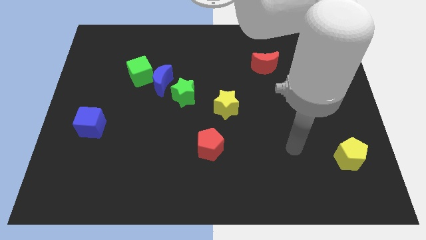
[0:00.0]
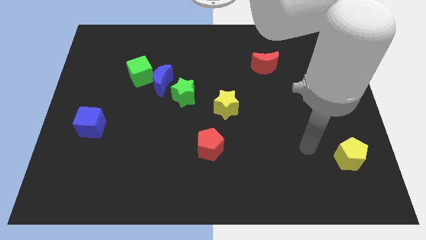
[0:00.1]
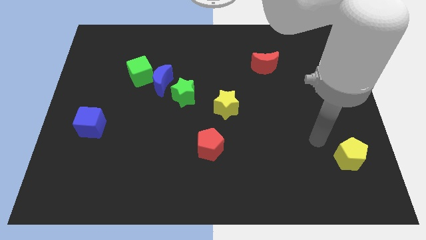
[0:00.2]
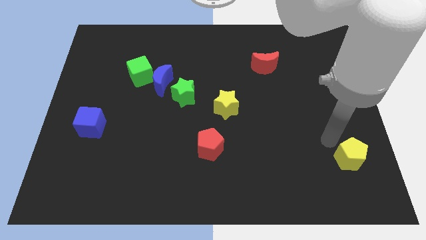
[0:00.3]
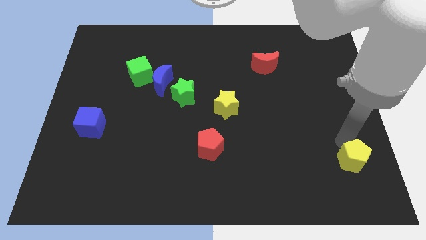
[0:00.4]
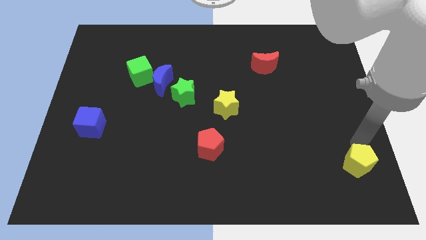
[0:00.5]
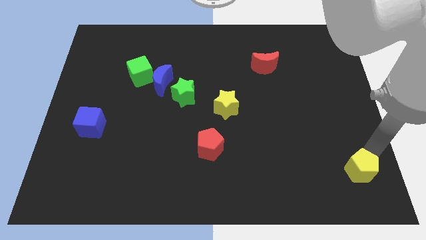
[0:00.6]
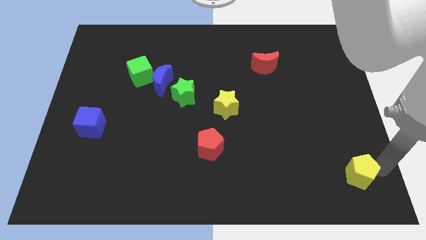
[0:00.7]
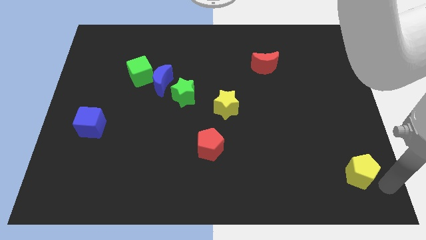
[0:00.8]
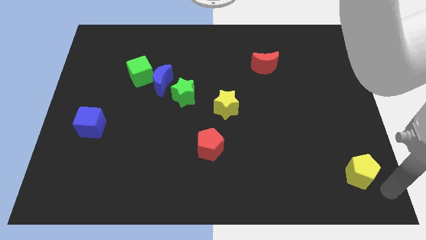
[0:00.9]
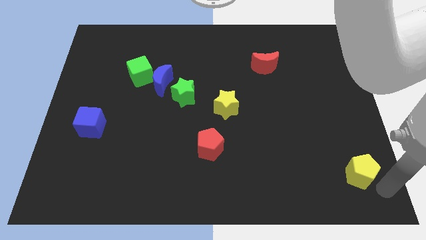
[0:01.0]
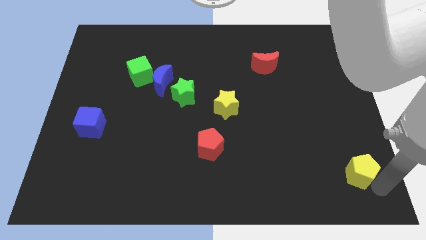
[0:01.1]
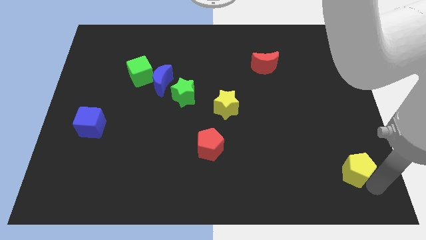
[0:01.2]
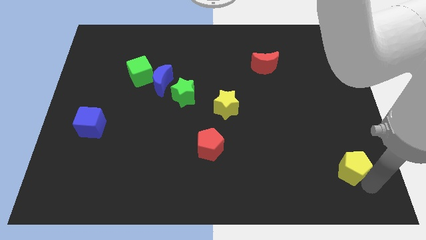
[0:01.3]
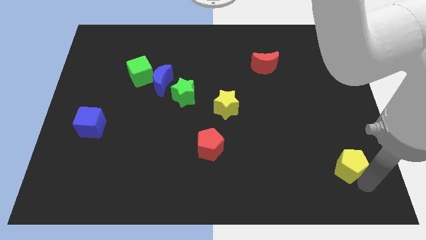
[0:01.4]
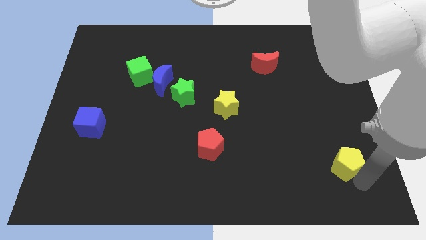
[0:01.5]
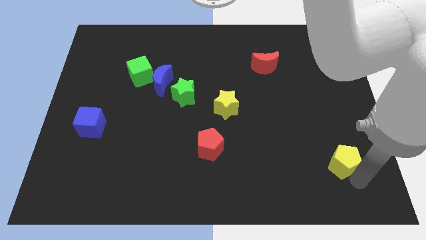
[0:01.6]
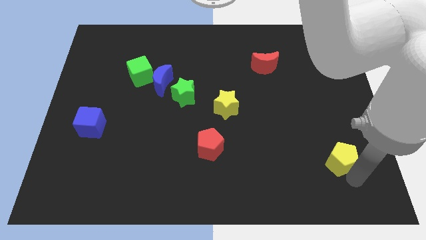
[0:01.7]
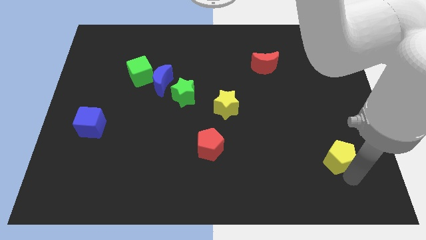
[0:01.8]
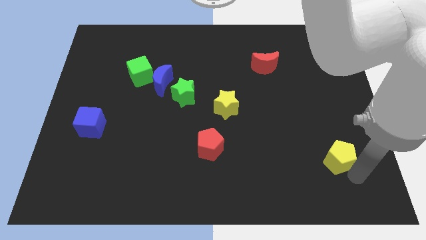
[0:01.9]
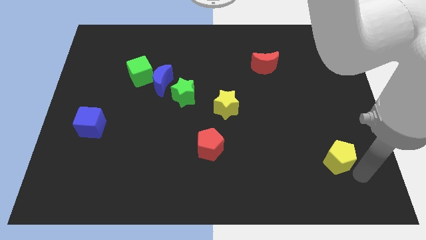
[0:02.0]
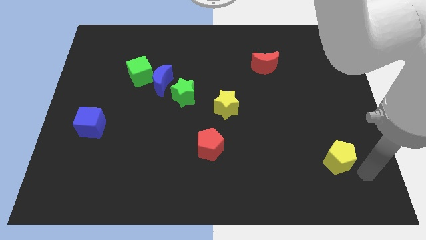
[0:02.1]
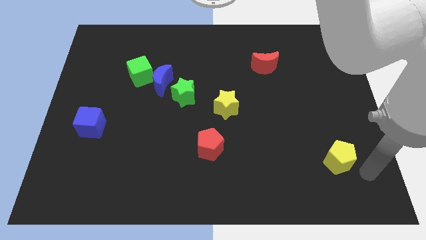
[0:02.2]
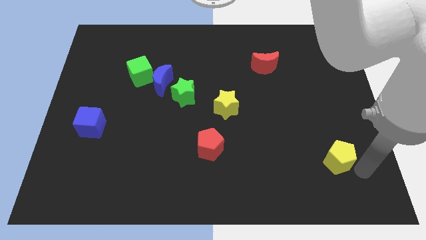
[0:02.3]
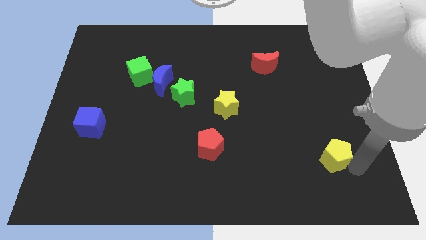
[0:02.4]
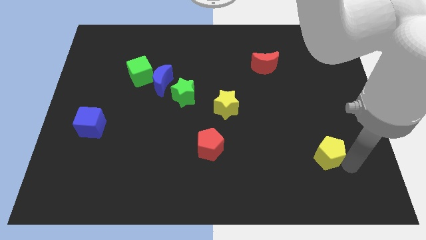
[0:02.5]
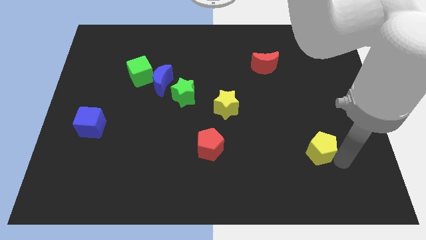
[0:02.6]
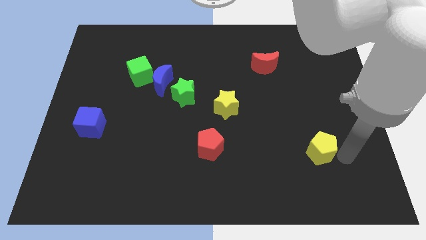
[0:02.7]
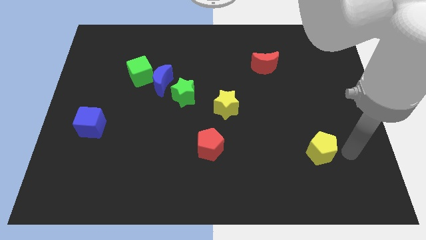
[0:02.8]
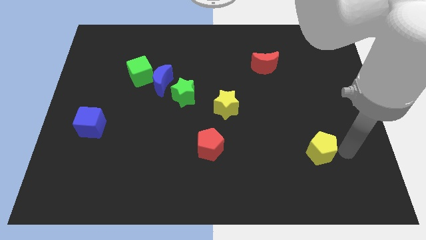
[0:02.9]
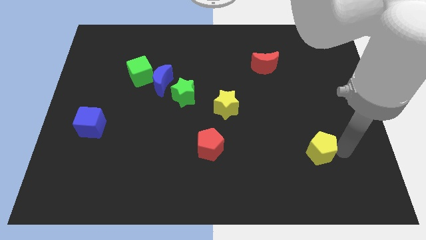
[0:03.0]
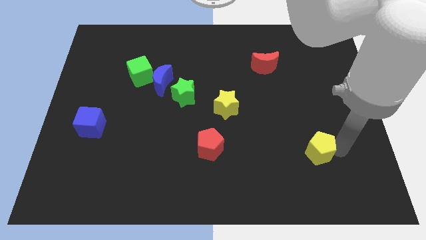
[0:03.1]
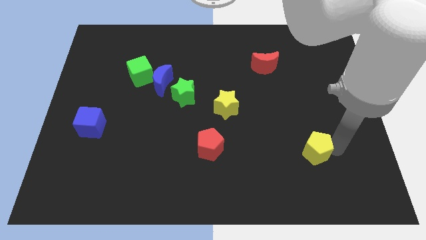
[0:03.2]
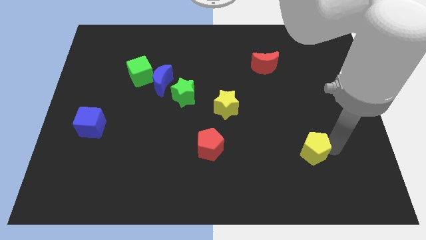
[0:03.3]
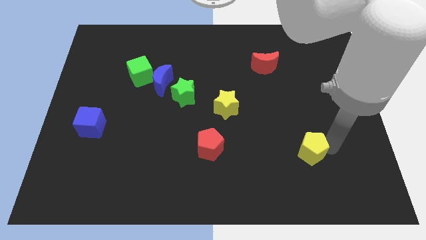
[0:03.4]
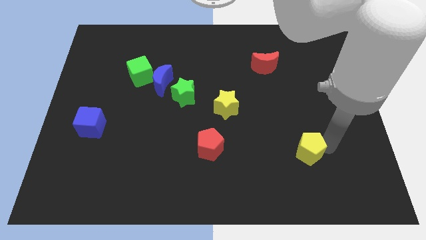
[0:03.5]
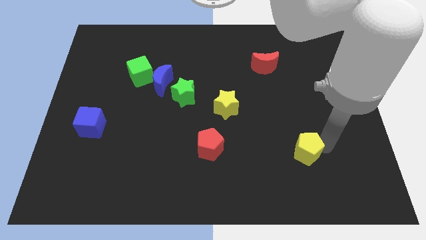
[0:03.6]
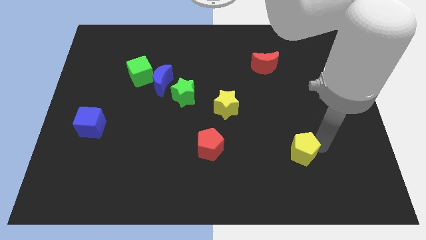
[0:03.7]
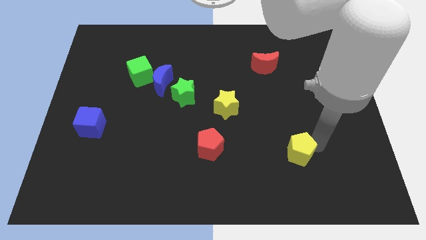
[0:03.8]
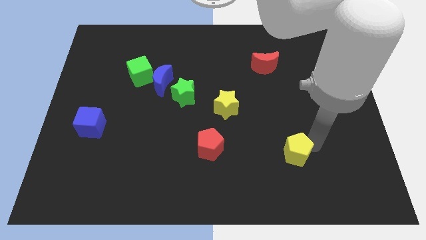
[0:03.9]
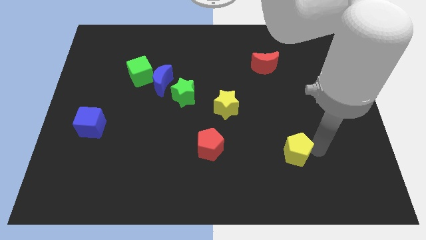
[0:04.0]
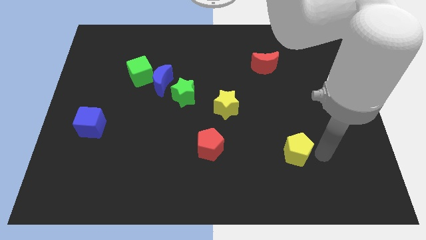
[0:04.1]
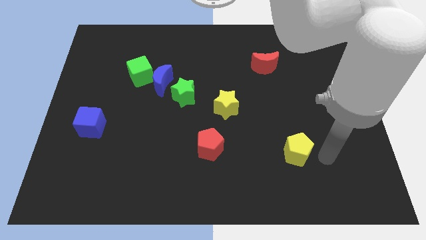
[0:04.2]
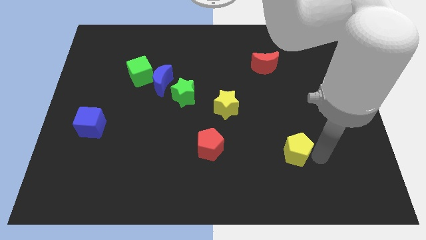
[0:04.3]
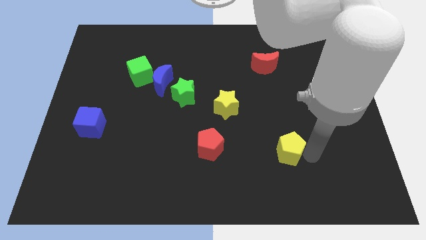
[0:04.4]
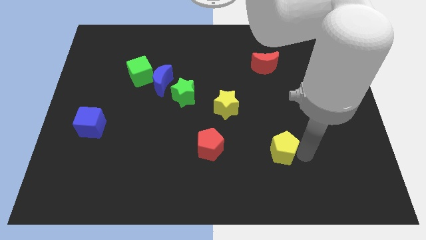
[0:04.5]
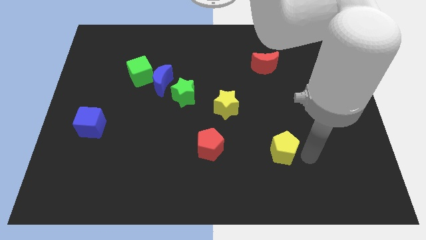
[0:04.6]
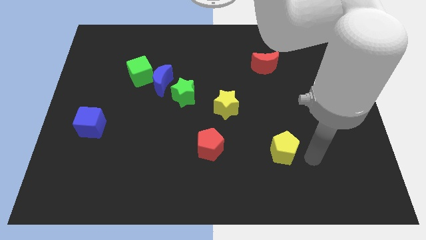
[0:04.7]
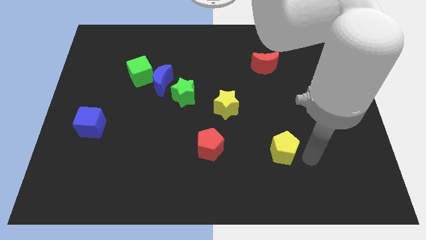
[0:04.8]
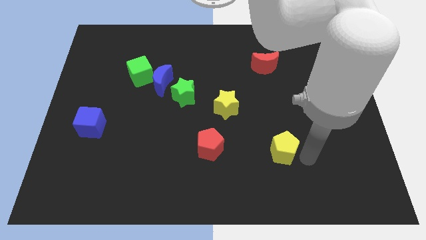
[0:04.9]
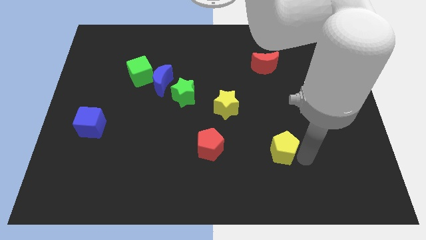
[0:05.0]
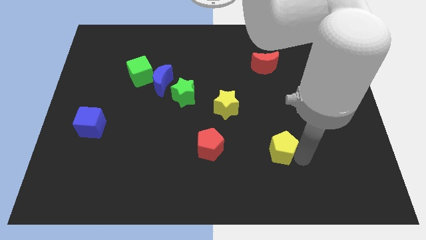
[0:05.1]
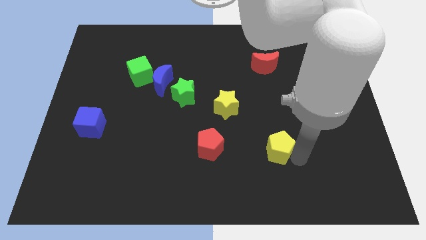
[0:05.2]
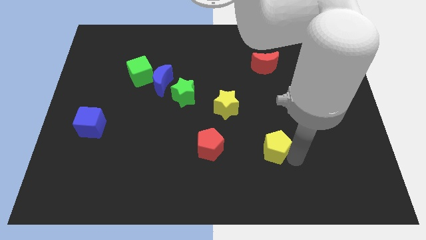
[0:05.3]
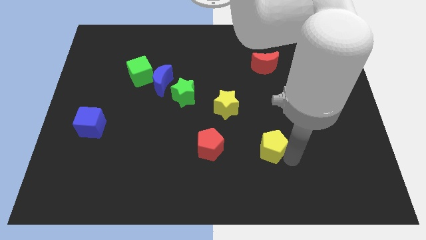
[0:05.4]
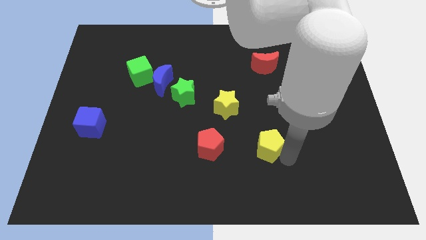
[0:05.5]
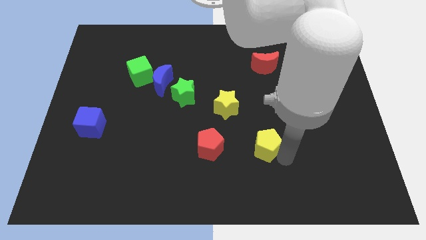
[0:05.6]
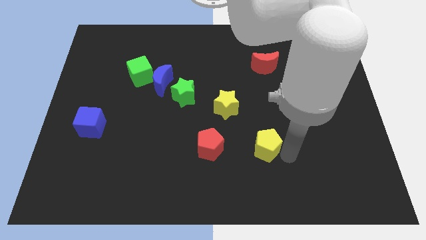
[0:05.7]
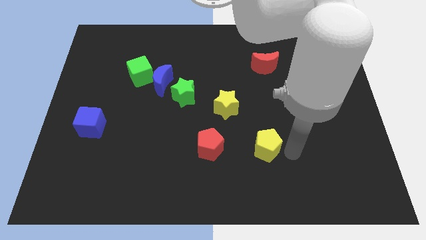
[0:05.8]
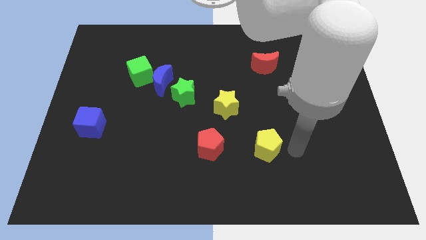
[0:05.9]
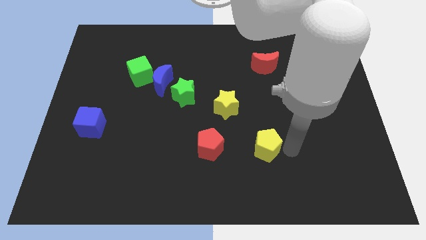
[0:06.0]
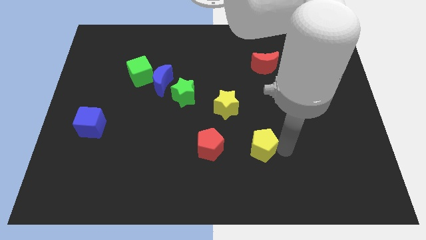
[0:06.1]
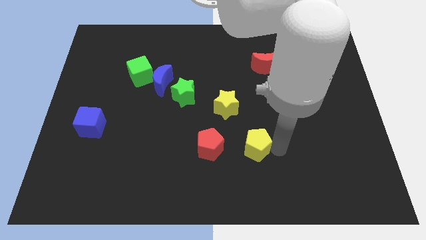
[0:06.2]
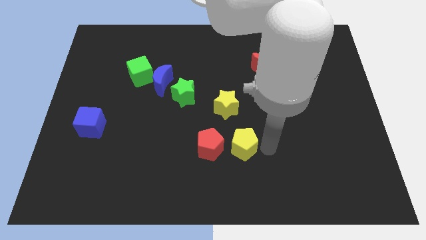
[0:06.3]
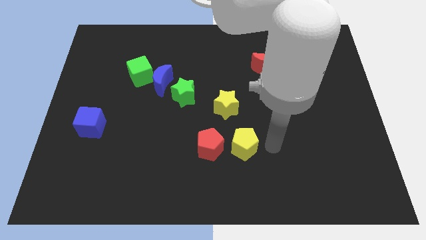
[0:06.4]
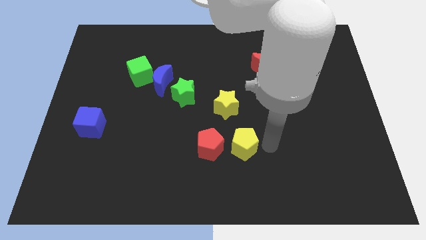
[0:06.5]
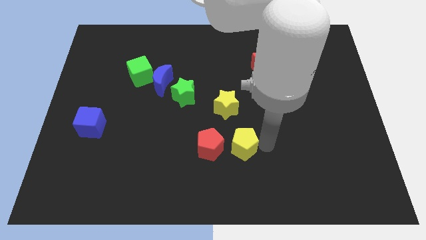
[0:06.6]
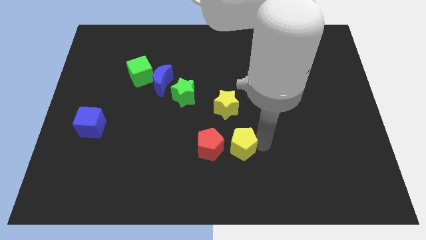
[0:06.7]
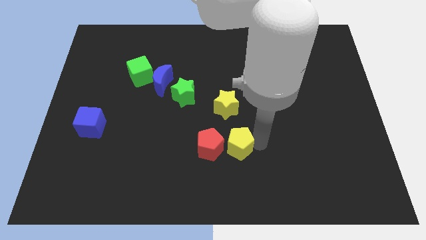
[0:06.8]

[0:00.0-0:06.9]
push the yellow pentagon towards the red pentagon
